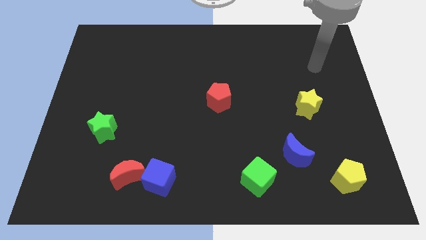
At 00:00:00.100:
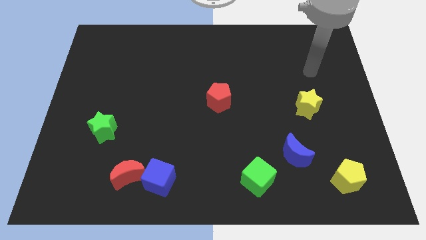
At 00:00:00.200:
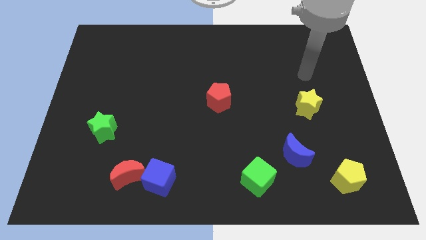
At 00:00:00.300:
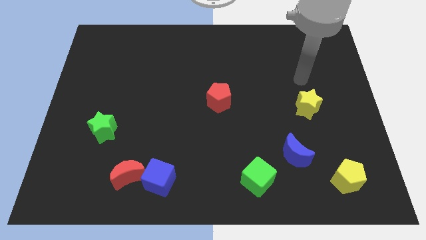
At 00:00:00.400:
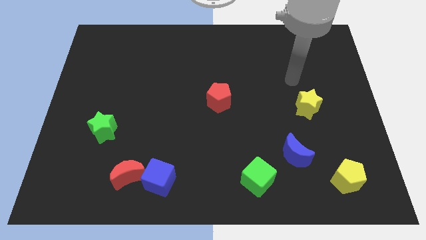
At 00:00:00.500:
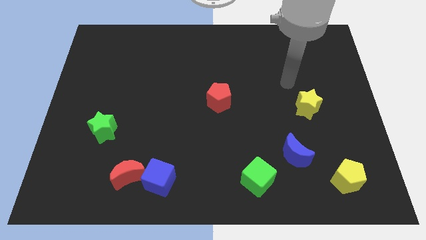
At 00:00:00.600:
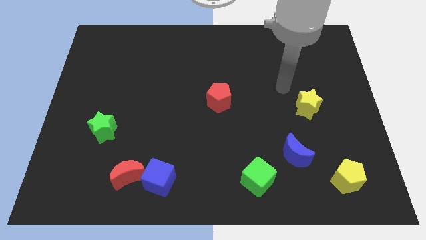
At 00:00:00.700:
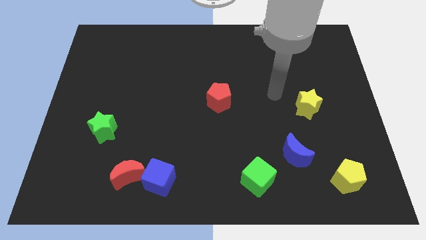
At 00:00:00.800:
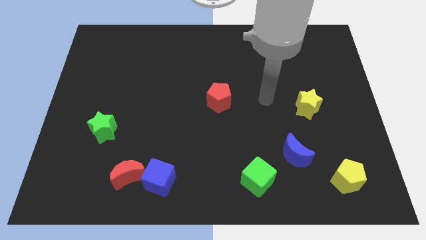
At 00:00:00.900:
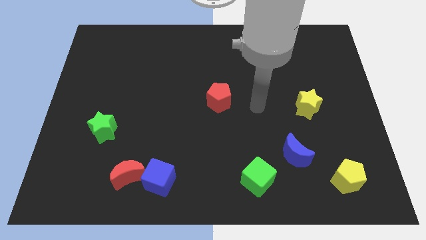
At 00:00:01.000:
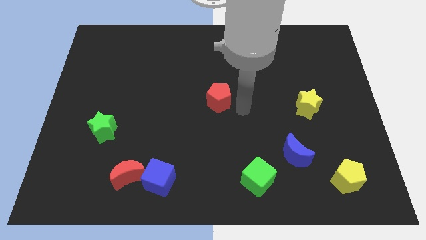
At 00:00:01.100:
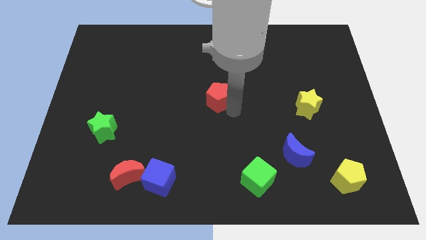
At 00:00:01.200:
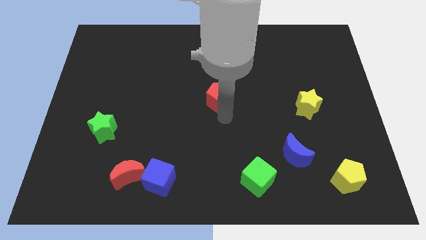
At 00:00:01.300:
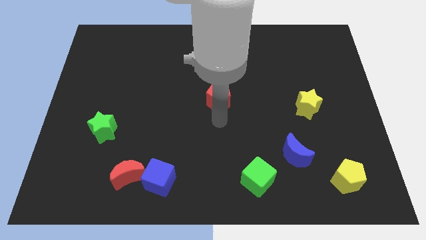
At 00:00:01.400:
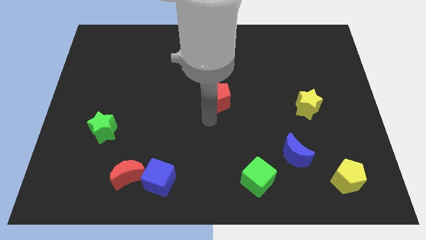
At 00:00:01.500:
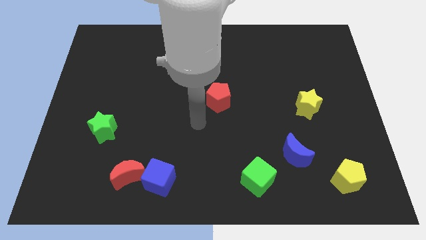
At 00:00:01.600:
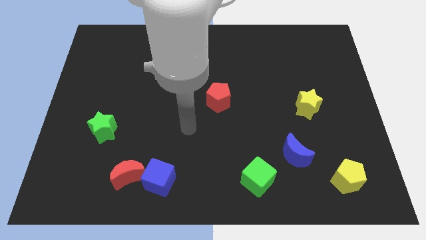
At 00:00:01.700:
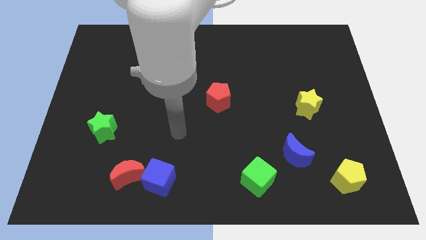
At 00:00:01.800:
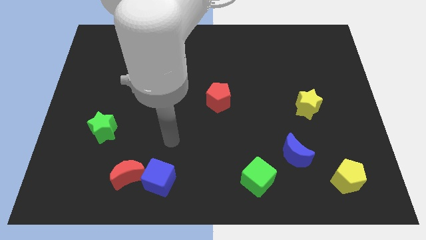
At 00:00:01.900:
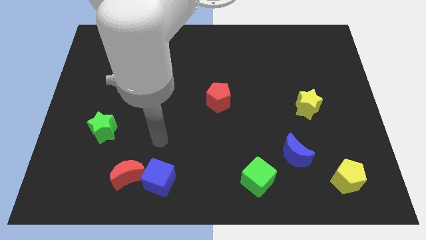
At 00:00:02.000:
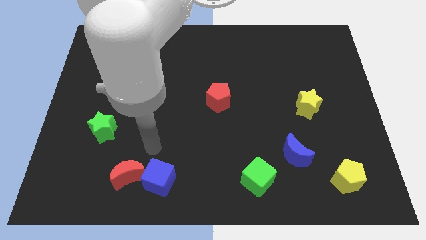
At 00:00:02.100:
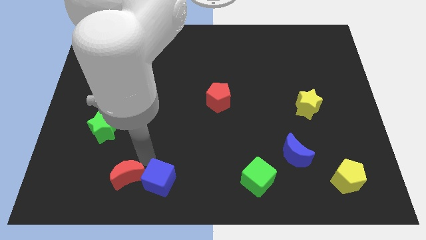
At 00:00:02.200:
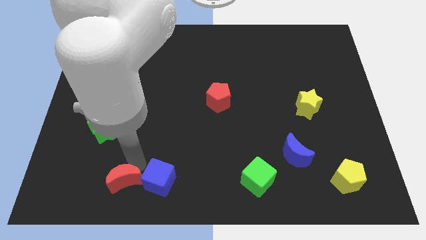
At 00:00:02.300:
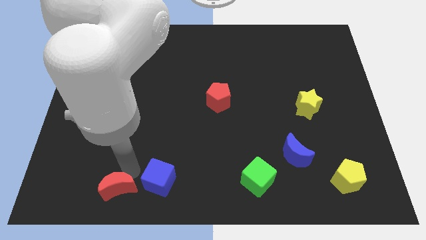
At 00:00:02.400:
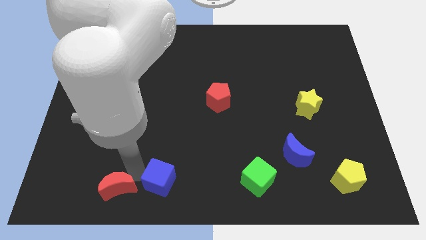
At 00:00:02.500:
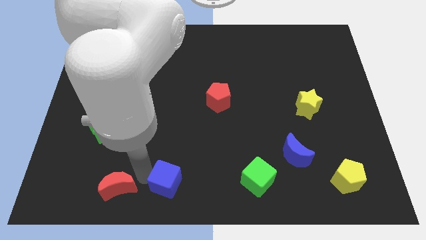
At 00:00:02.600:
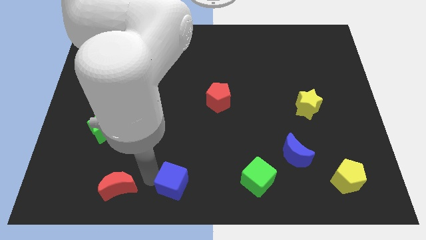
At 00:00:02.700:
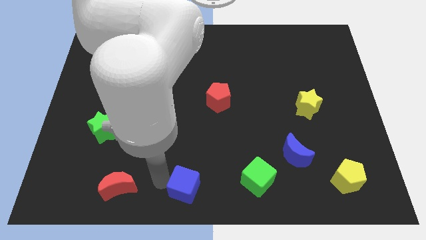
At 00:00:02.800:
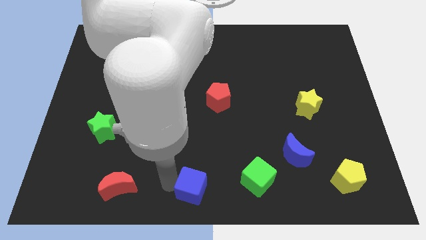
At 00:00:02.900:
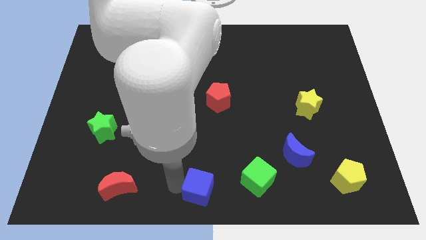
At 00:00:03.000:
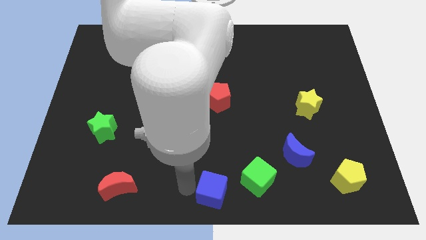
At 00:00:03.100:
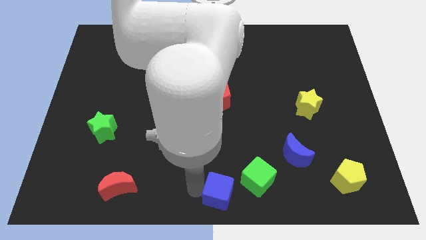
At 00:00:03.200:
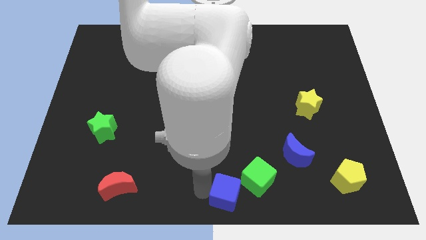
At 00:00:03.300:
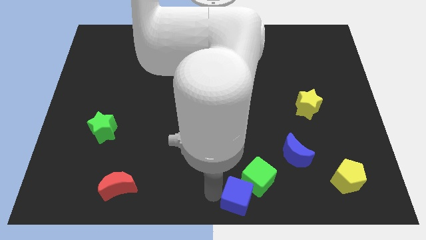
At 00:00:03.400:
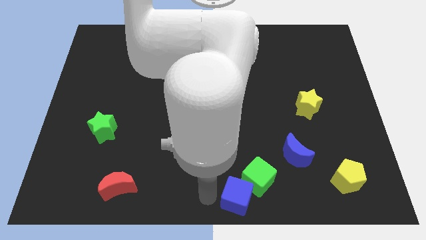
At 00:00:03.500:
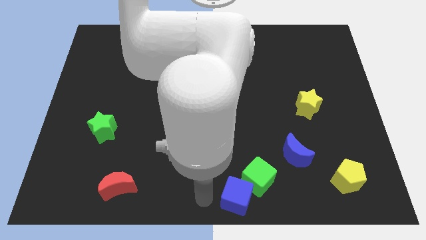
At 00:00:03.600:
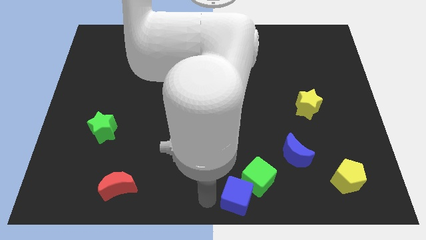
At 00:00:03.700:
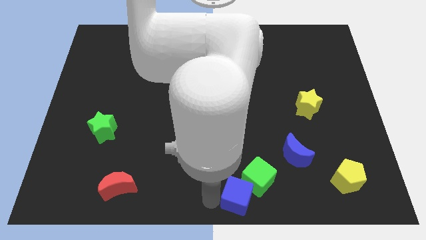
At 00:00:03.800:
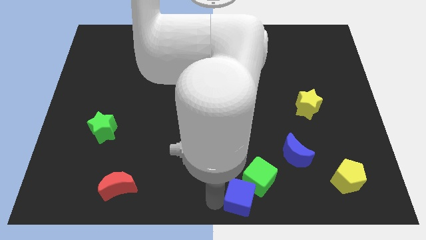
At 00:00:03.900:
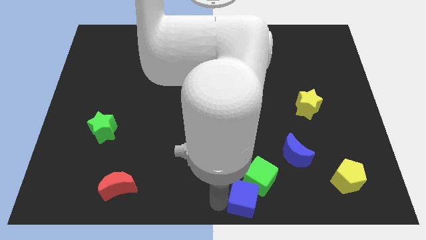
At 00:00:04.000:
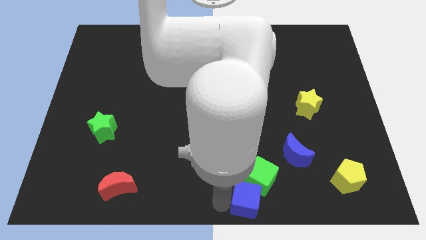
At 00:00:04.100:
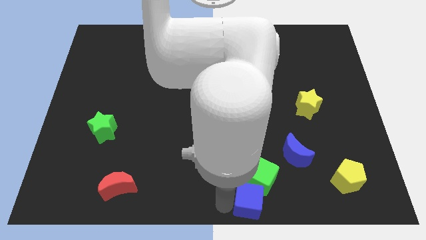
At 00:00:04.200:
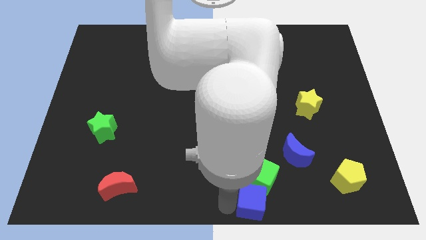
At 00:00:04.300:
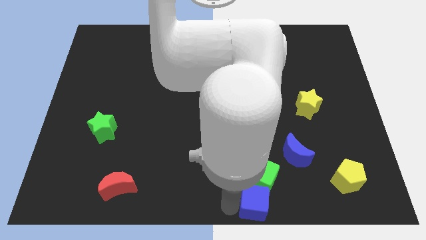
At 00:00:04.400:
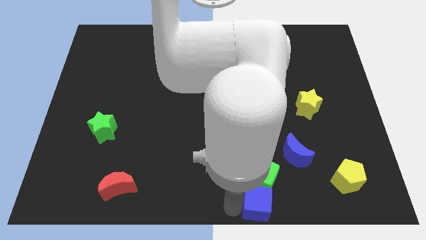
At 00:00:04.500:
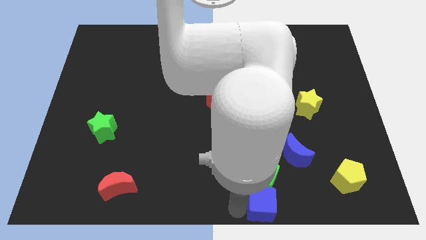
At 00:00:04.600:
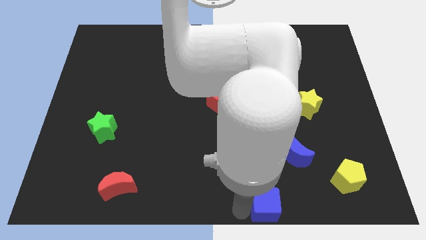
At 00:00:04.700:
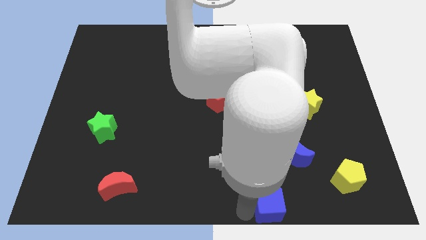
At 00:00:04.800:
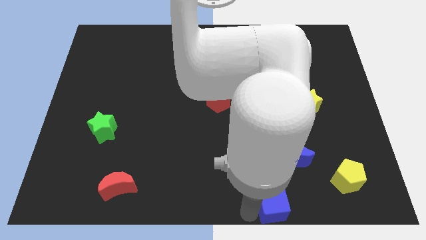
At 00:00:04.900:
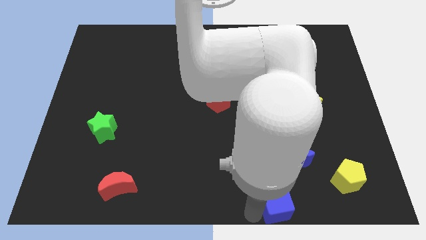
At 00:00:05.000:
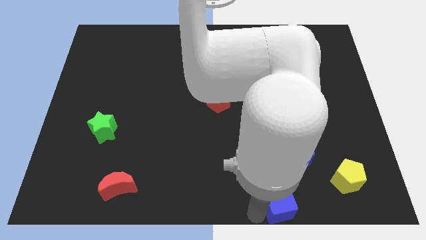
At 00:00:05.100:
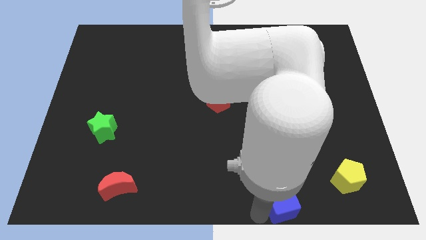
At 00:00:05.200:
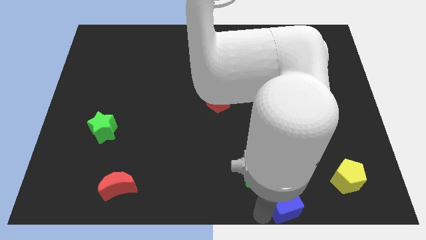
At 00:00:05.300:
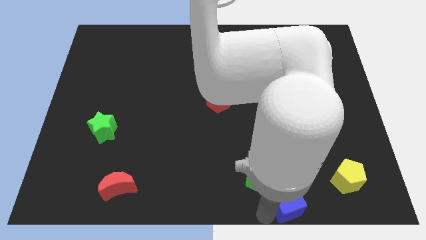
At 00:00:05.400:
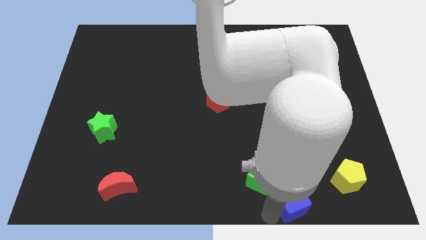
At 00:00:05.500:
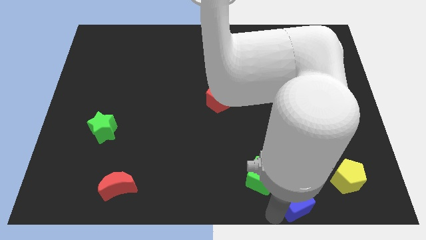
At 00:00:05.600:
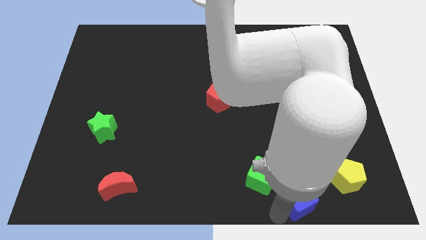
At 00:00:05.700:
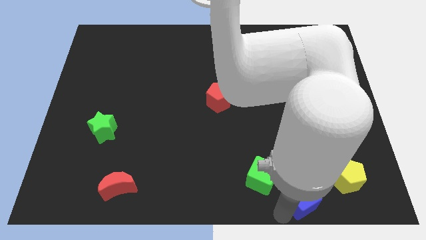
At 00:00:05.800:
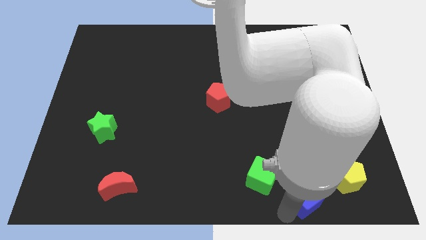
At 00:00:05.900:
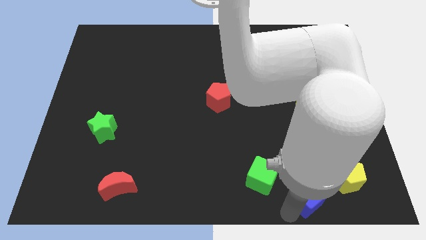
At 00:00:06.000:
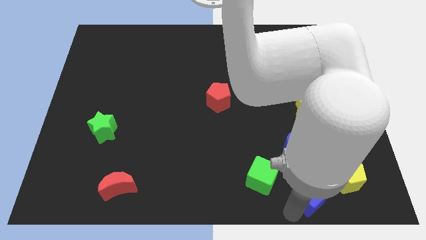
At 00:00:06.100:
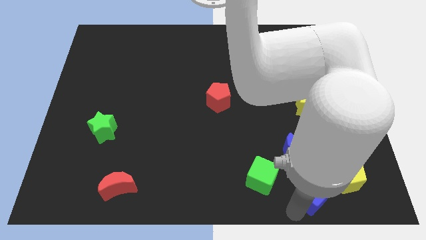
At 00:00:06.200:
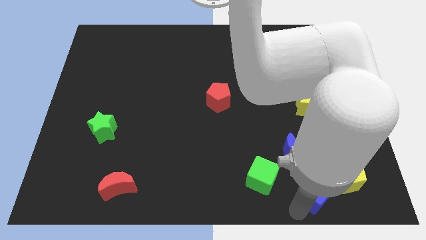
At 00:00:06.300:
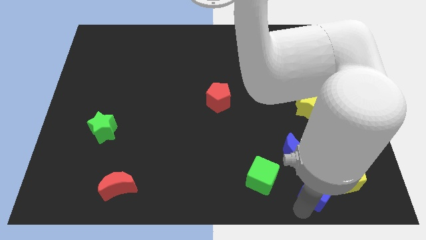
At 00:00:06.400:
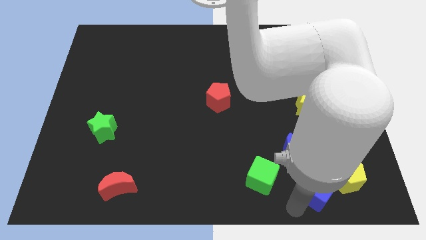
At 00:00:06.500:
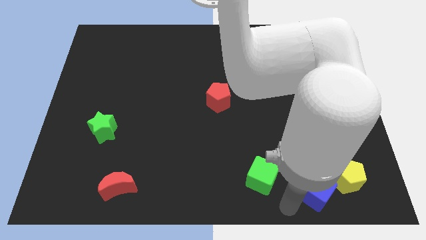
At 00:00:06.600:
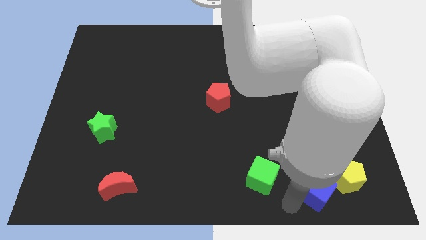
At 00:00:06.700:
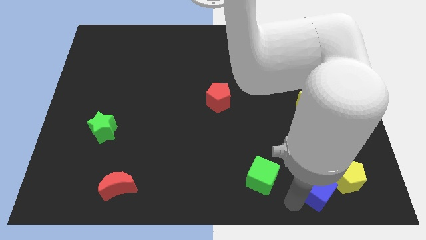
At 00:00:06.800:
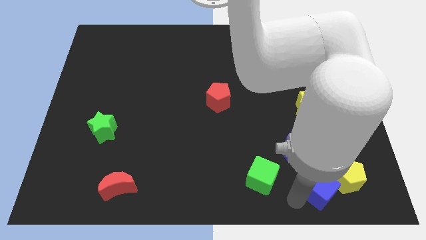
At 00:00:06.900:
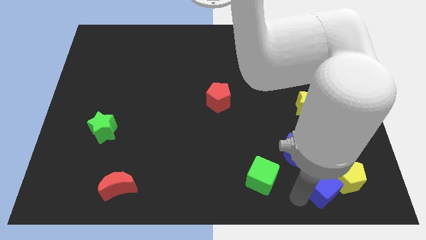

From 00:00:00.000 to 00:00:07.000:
push the blue cube to the yellow pentagon
